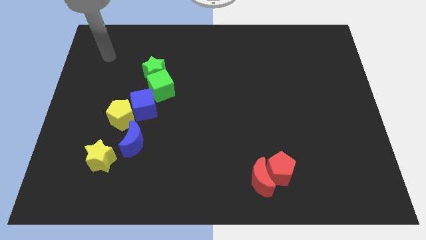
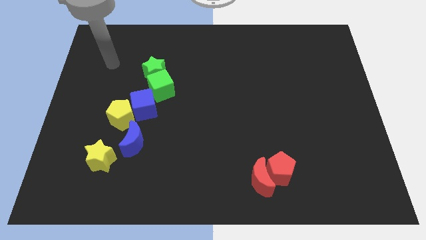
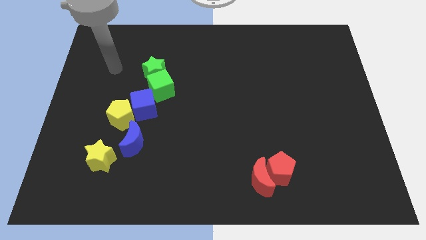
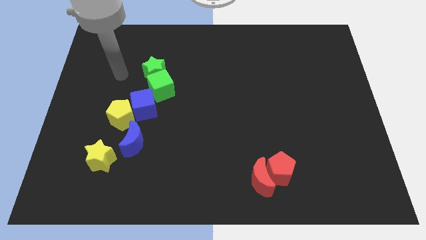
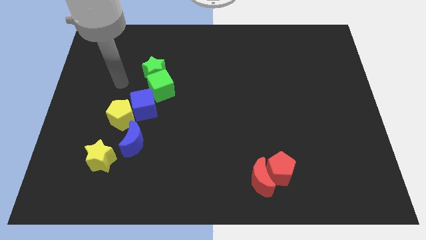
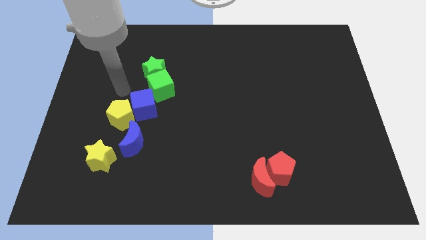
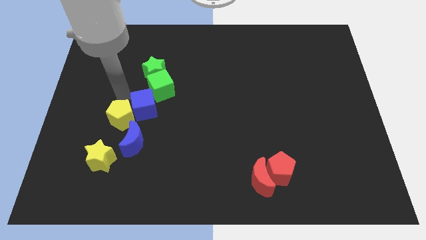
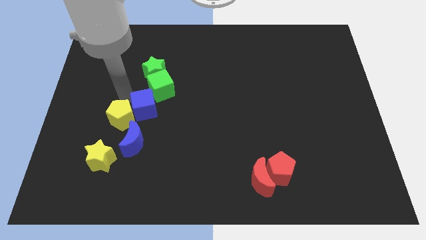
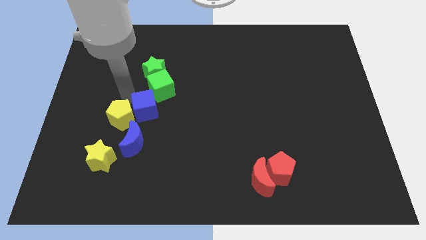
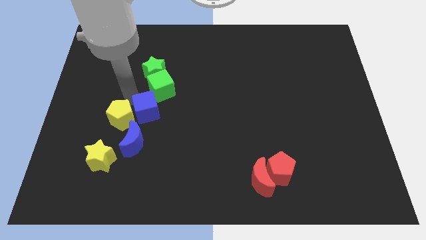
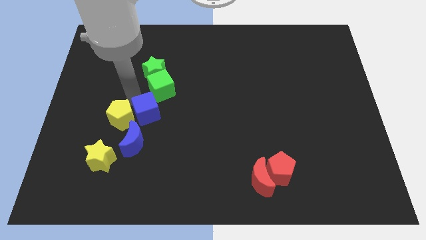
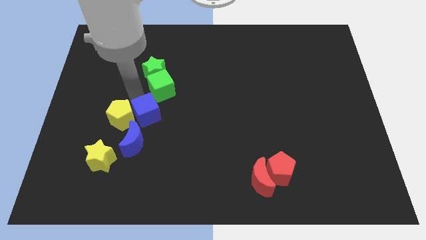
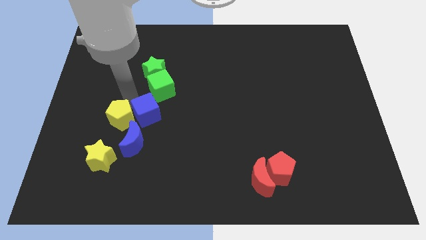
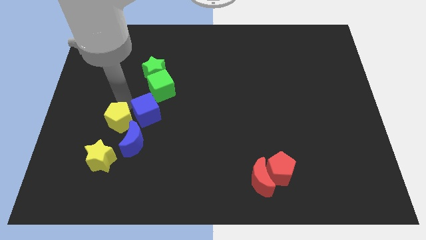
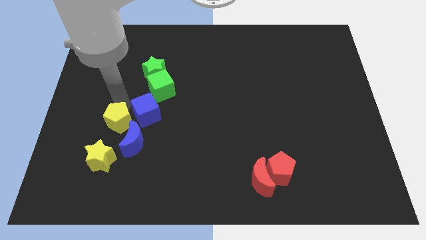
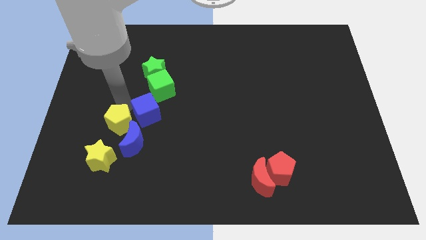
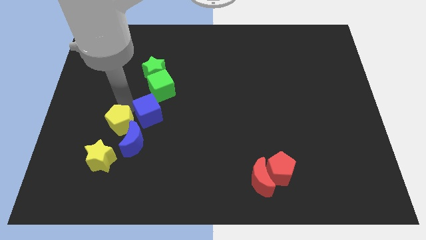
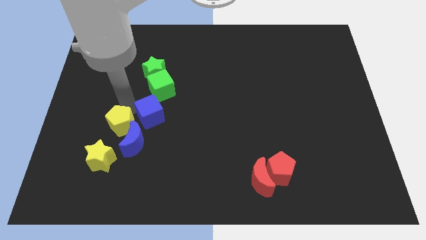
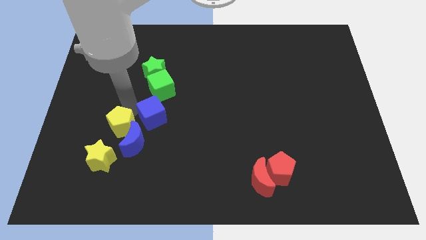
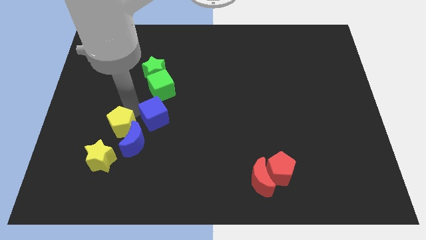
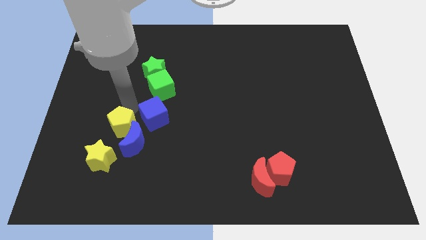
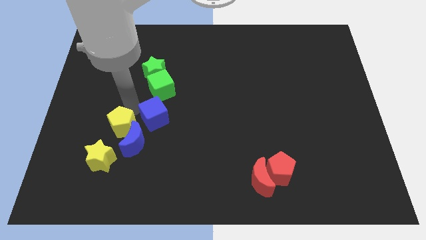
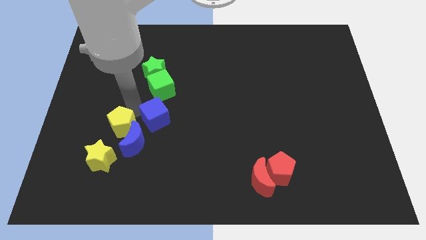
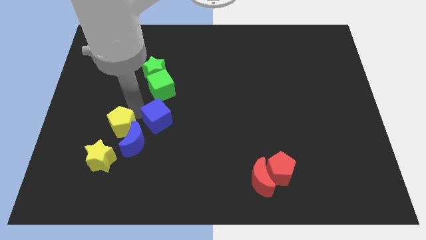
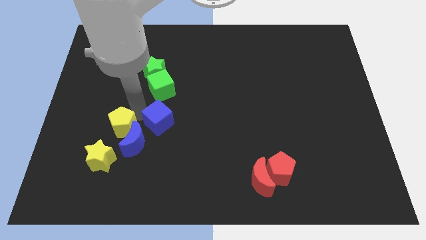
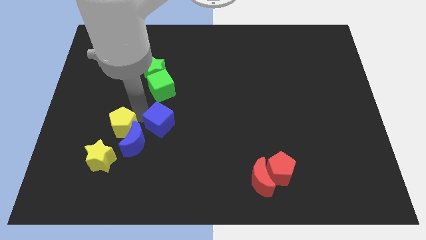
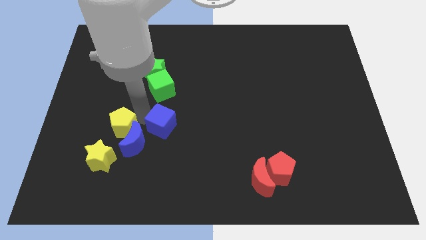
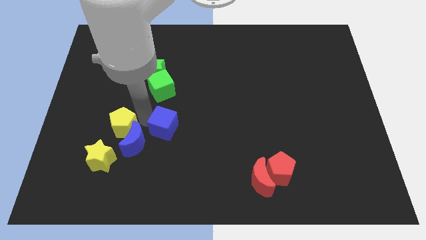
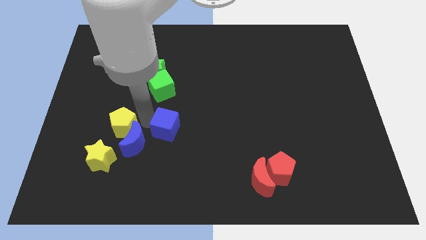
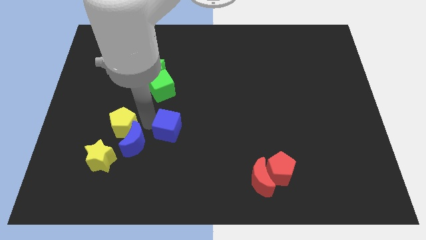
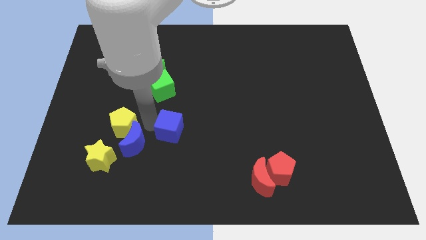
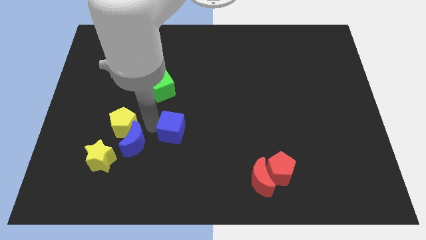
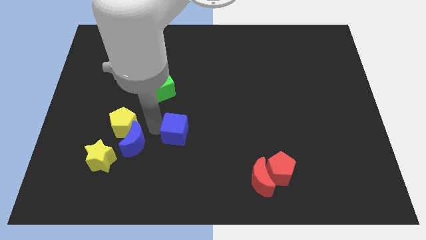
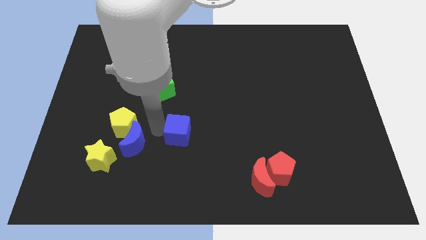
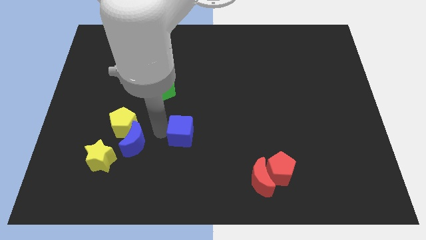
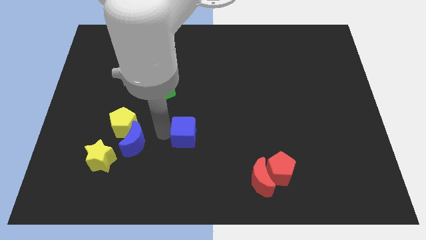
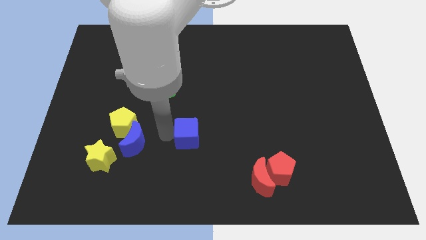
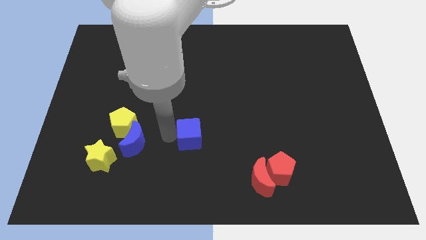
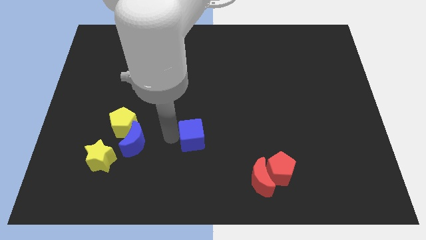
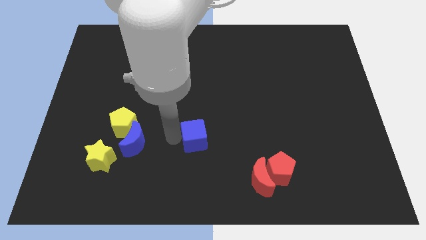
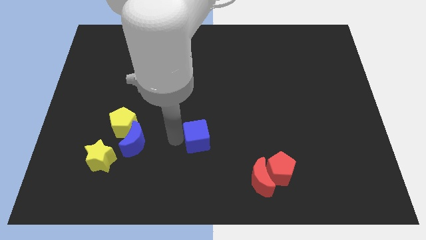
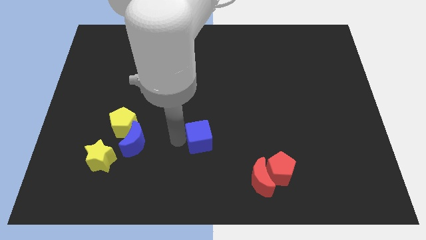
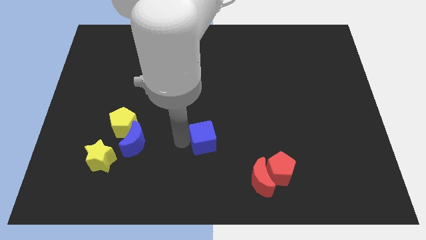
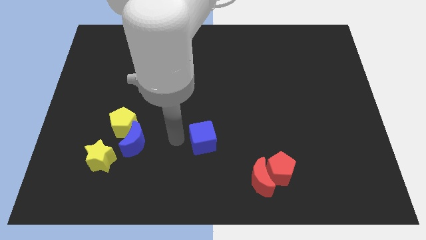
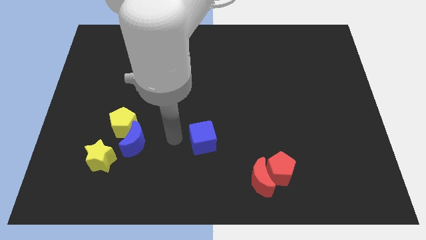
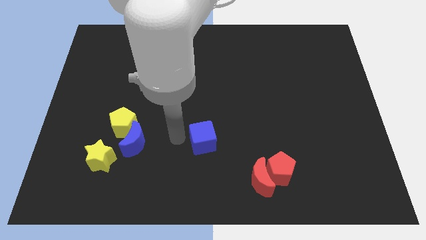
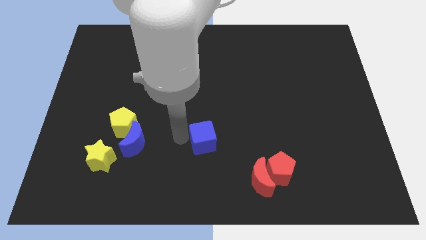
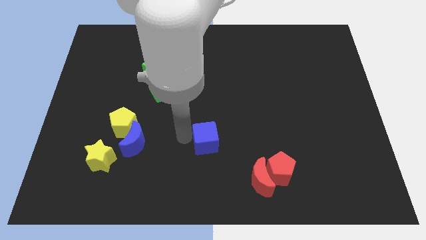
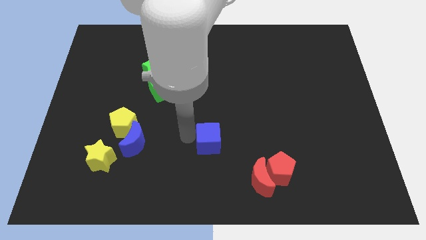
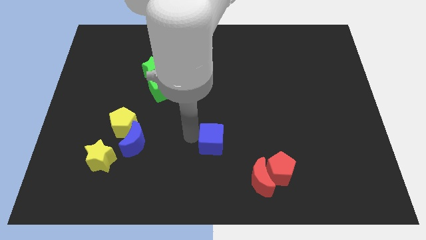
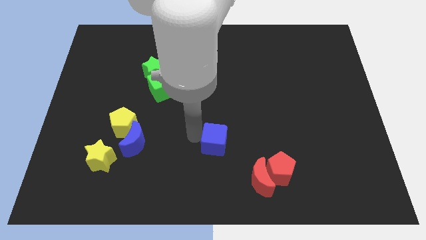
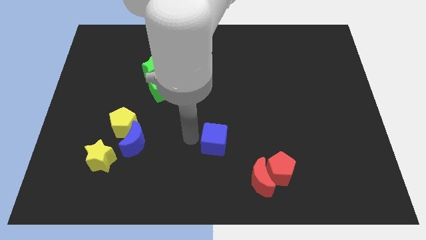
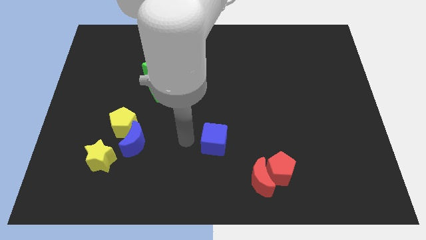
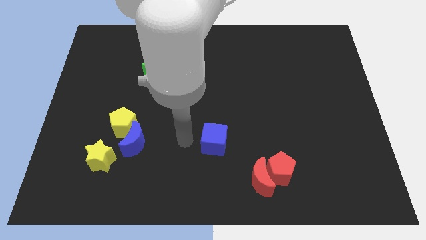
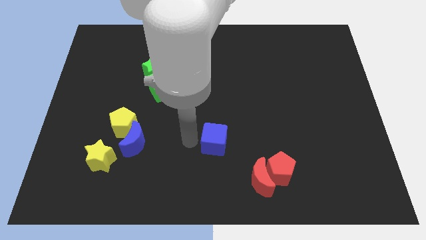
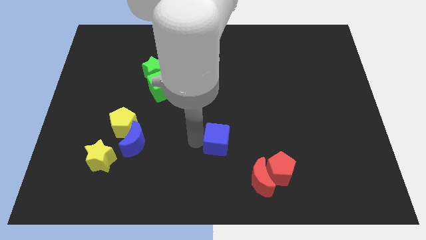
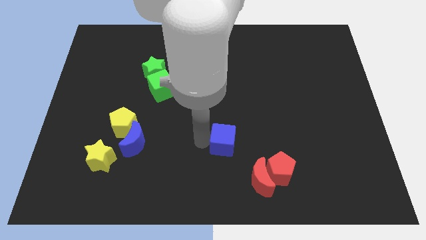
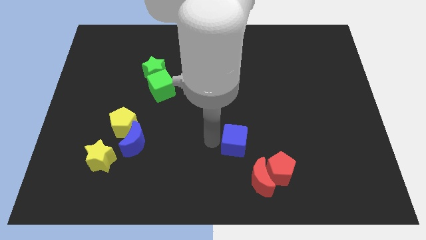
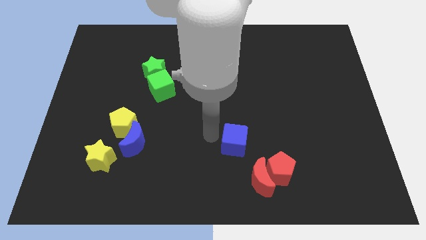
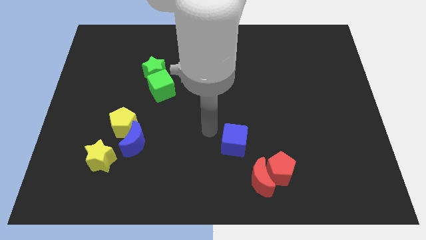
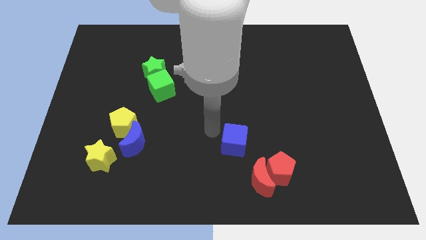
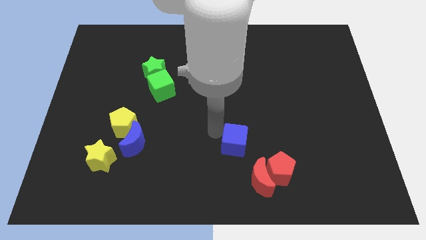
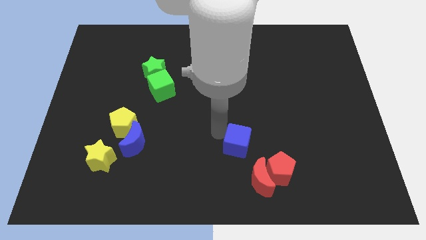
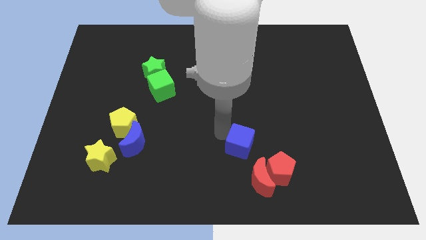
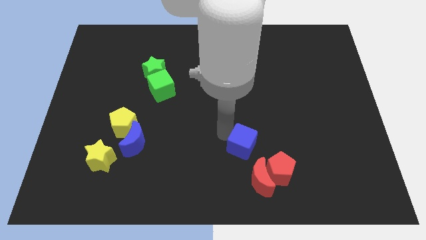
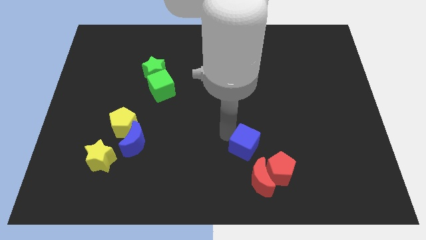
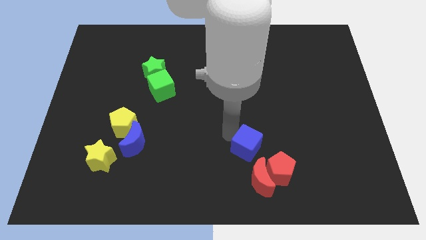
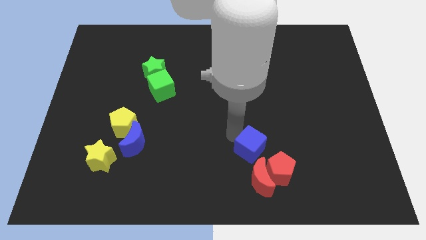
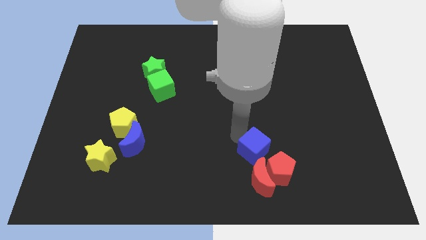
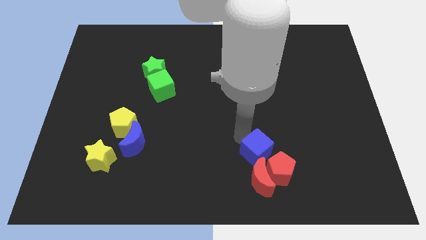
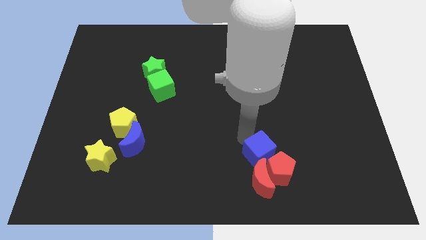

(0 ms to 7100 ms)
move the blue cube close to the red pentagon

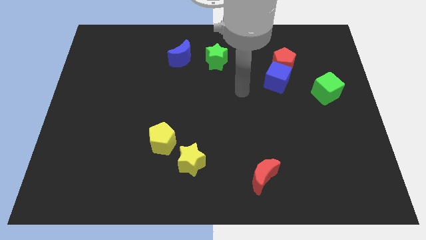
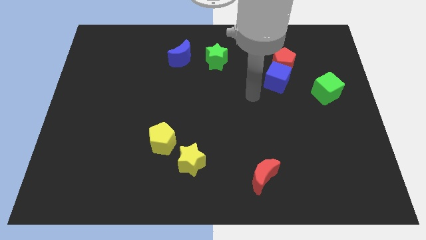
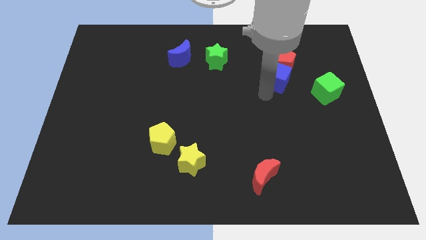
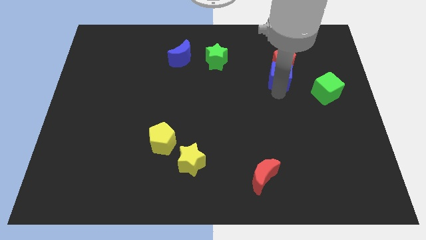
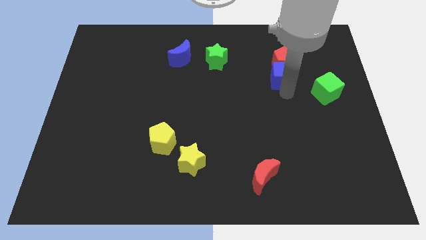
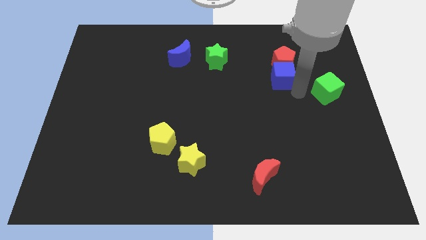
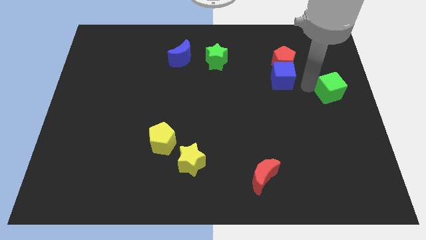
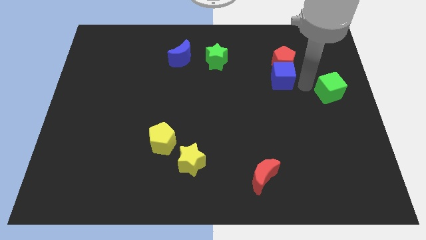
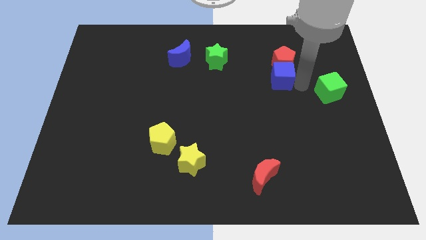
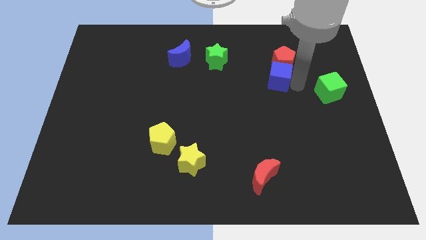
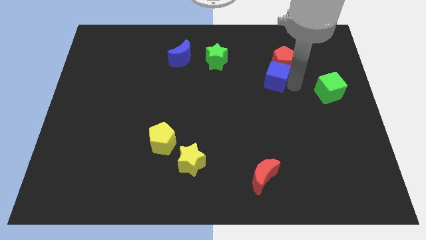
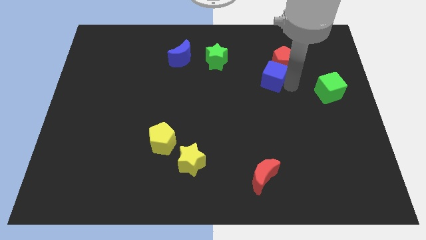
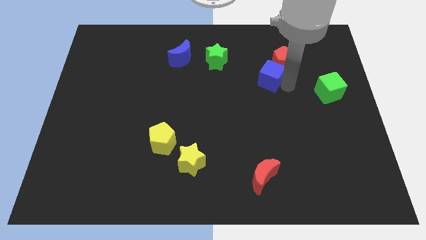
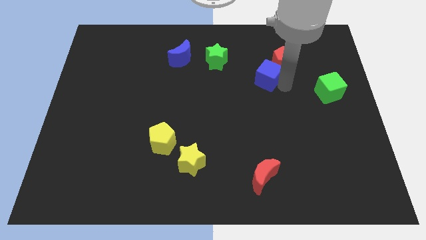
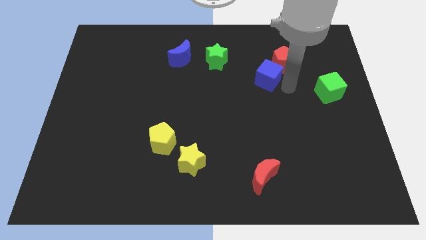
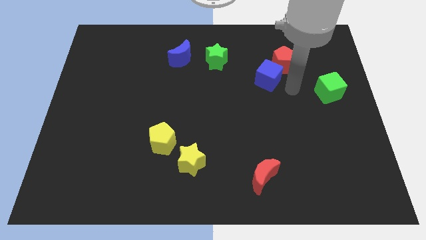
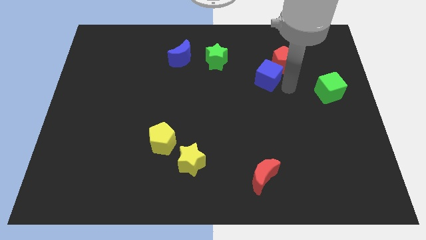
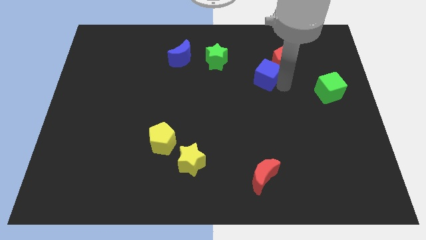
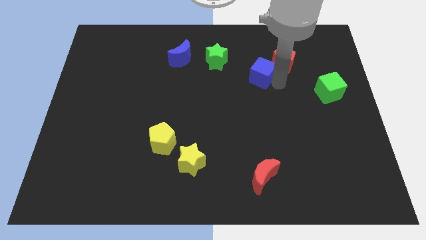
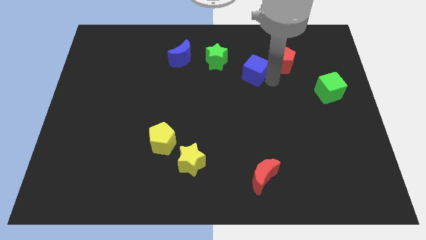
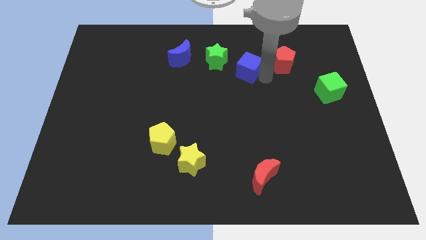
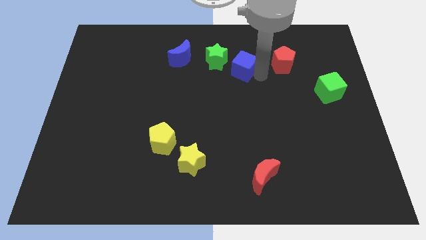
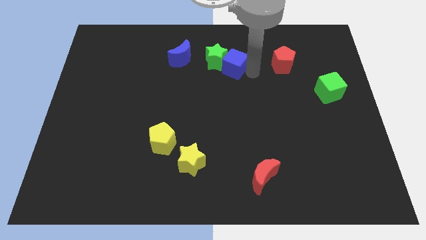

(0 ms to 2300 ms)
push the blue cube close to the green star
